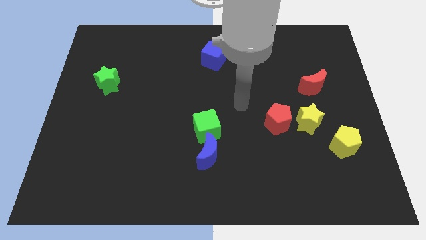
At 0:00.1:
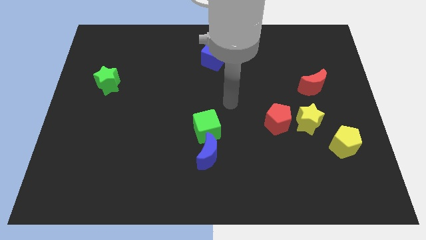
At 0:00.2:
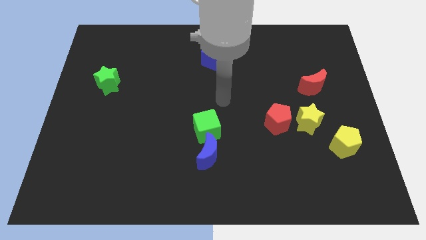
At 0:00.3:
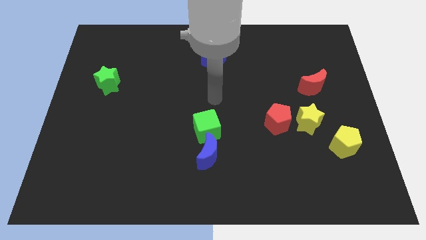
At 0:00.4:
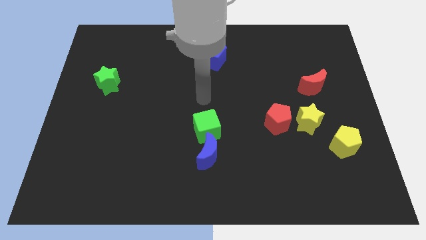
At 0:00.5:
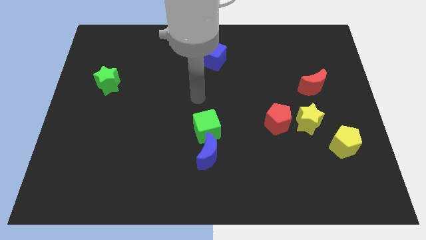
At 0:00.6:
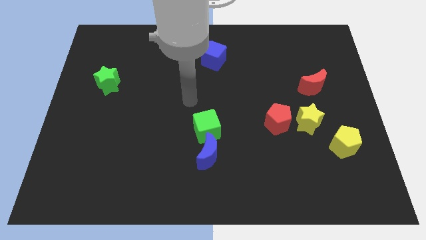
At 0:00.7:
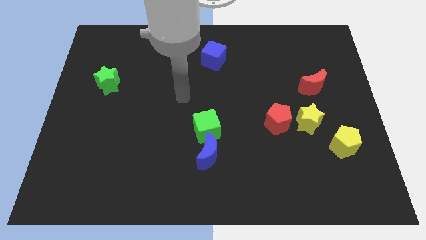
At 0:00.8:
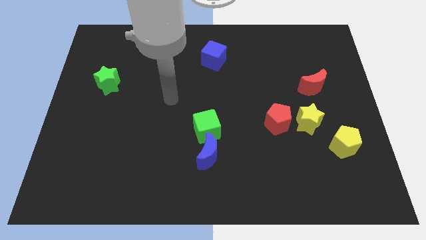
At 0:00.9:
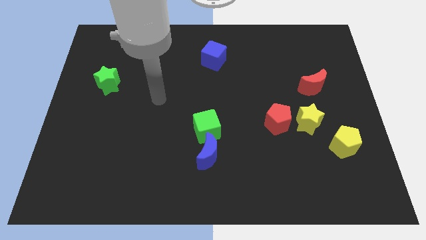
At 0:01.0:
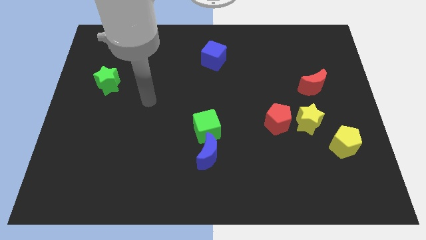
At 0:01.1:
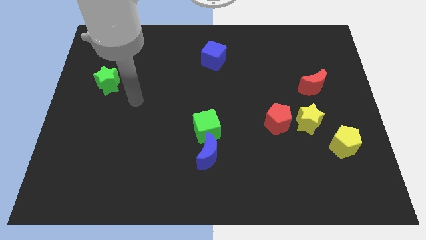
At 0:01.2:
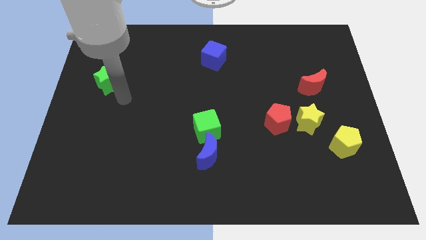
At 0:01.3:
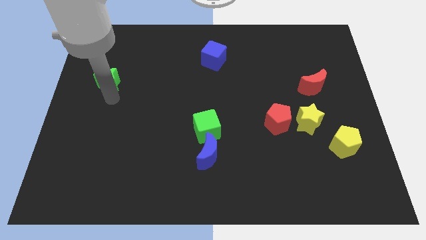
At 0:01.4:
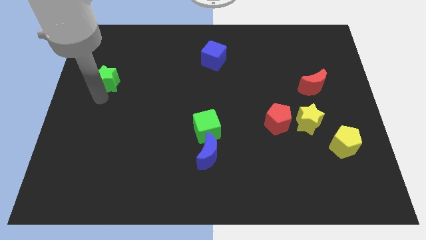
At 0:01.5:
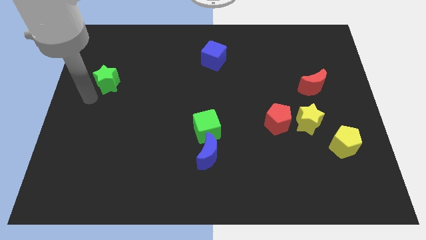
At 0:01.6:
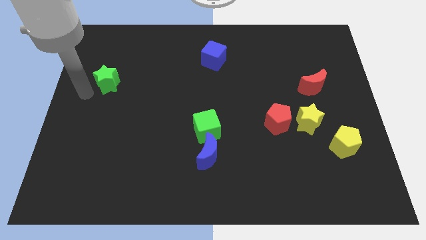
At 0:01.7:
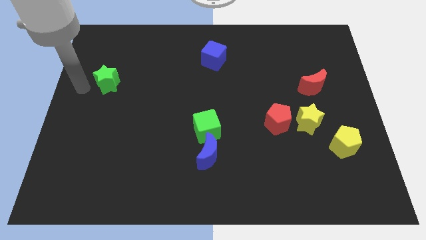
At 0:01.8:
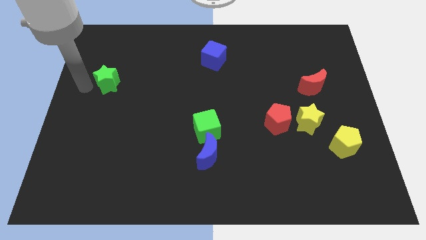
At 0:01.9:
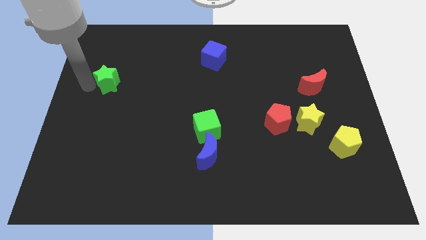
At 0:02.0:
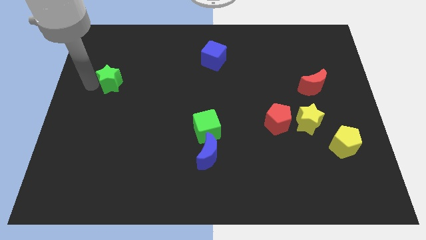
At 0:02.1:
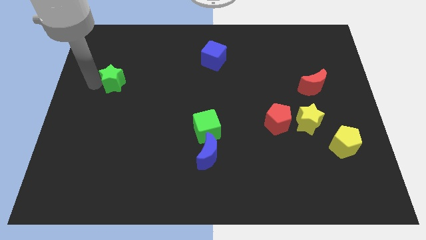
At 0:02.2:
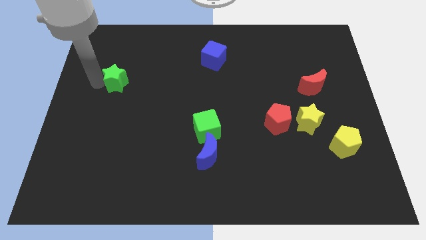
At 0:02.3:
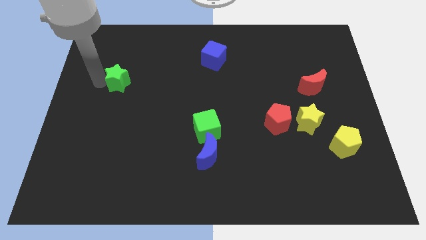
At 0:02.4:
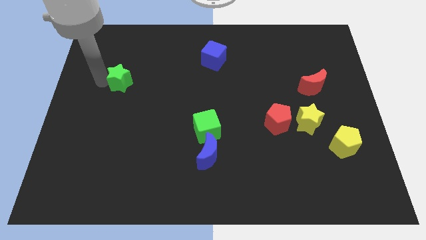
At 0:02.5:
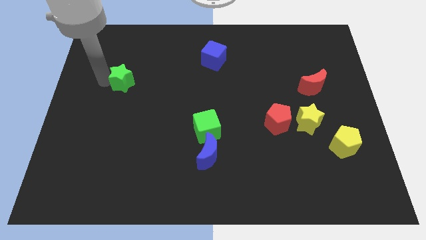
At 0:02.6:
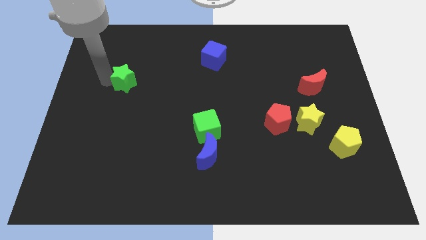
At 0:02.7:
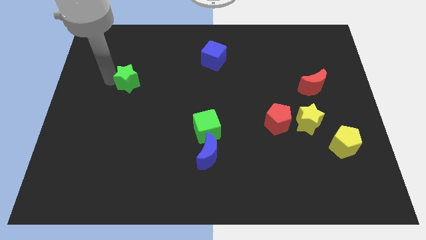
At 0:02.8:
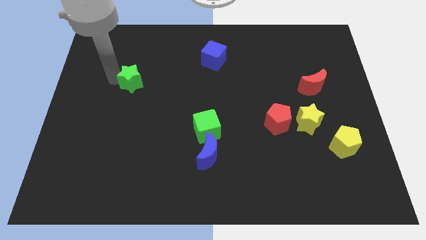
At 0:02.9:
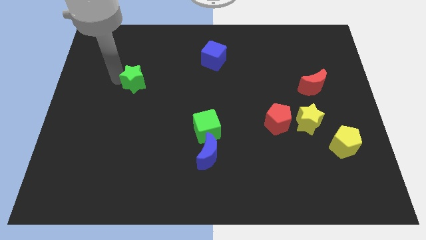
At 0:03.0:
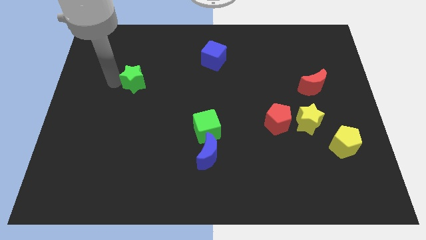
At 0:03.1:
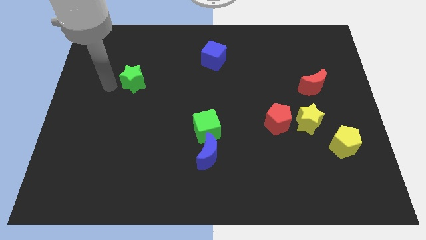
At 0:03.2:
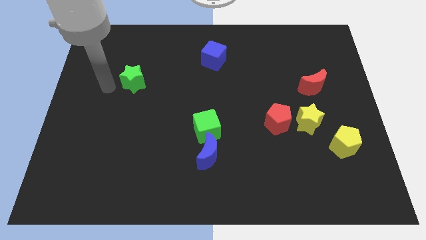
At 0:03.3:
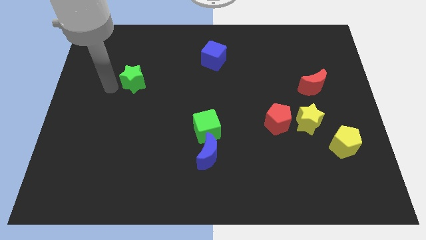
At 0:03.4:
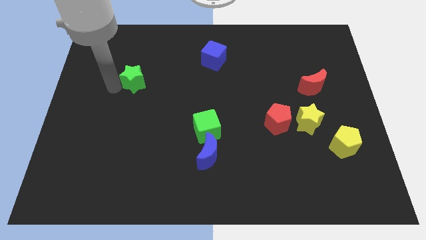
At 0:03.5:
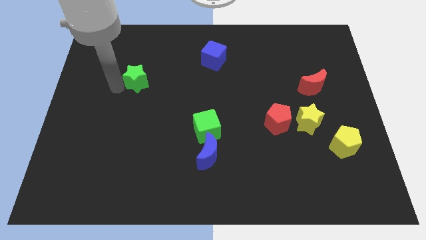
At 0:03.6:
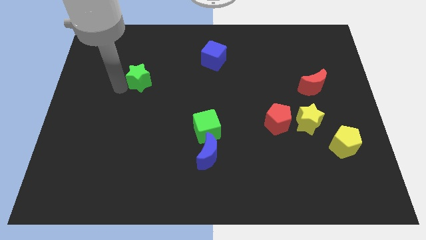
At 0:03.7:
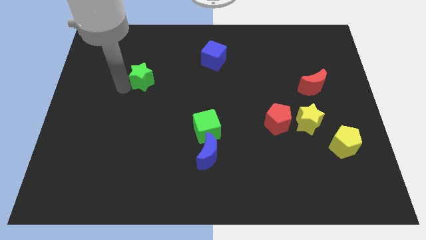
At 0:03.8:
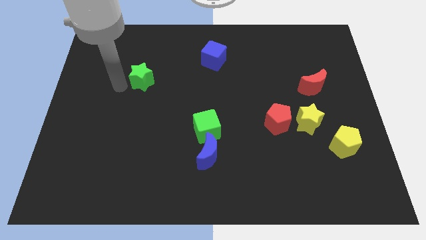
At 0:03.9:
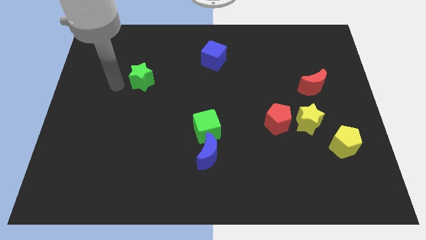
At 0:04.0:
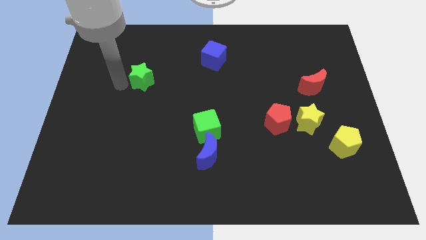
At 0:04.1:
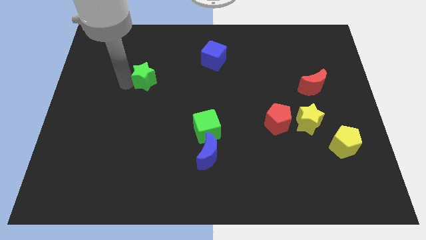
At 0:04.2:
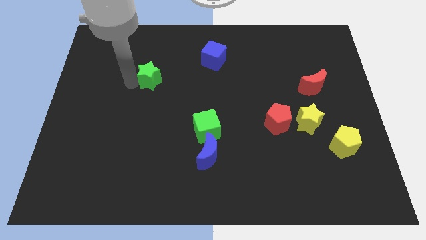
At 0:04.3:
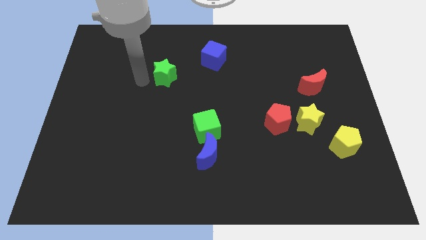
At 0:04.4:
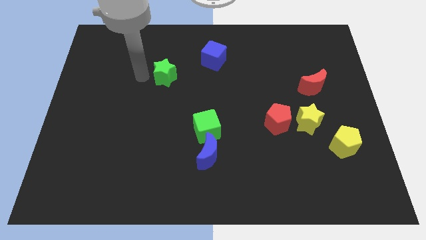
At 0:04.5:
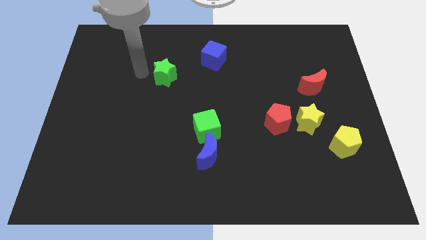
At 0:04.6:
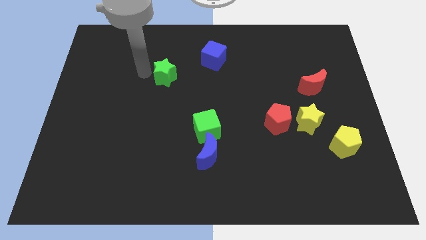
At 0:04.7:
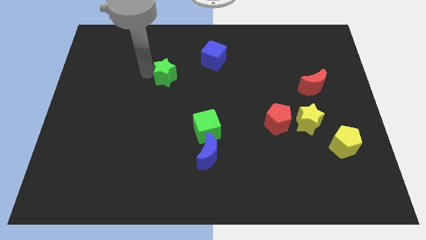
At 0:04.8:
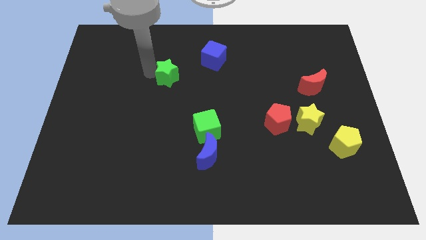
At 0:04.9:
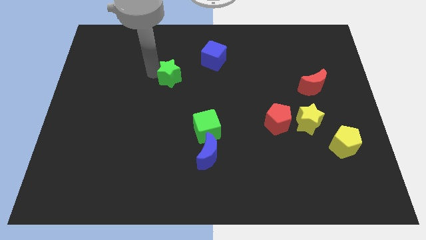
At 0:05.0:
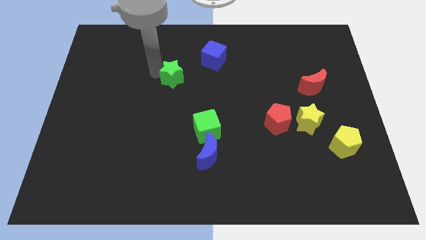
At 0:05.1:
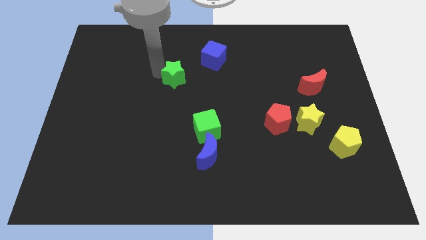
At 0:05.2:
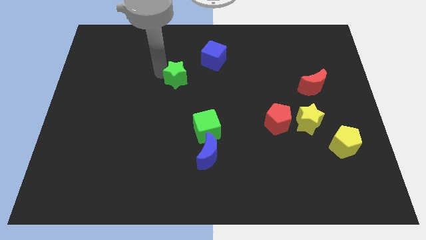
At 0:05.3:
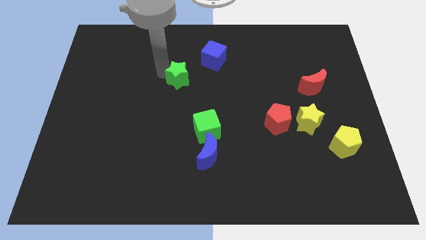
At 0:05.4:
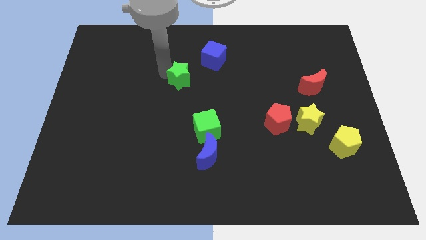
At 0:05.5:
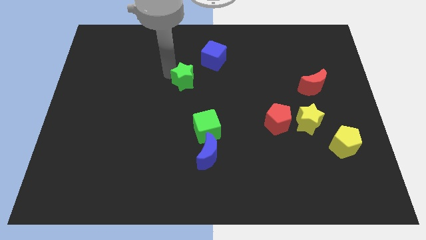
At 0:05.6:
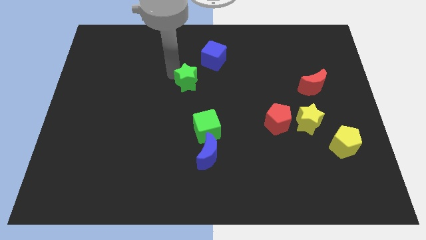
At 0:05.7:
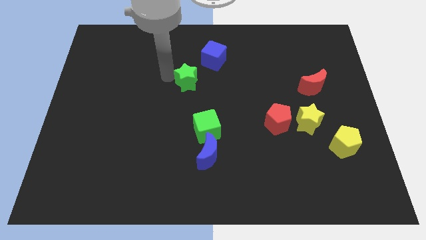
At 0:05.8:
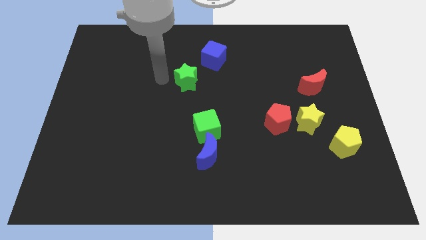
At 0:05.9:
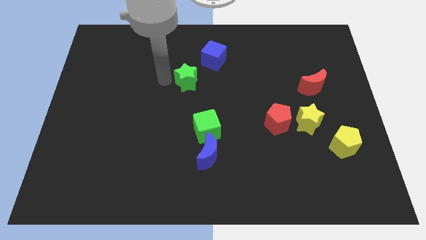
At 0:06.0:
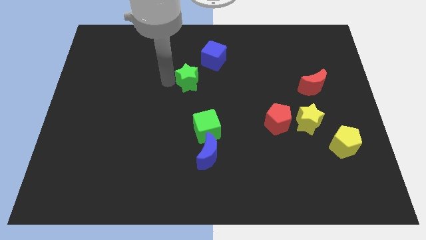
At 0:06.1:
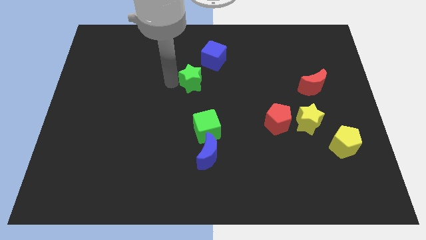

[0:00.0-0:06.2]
move the green star to the right

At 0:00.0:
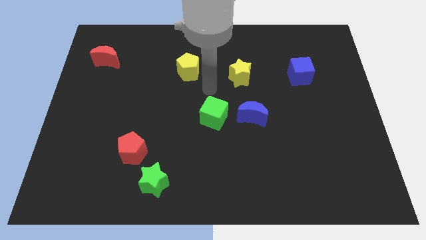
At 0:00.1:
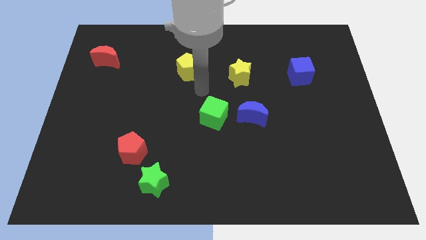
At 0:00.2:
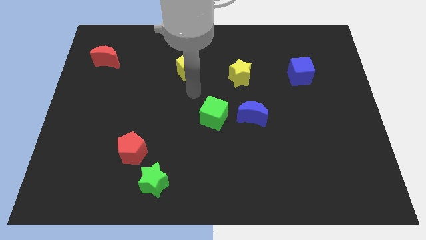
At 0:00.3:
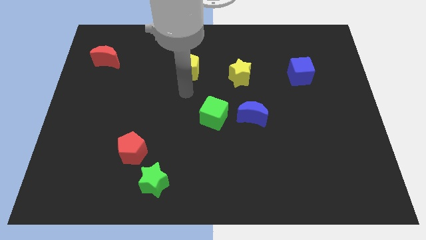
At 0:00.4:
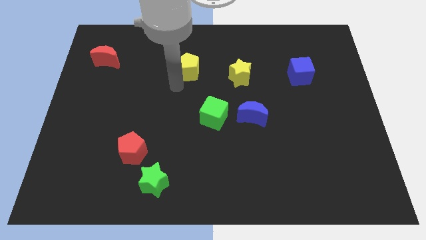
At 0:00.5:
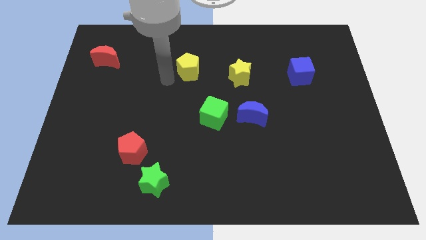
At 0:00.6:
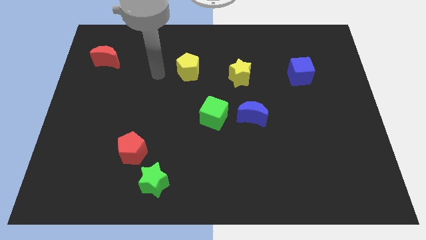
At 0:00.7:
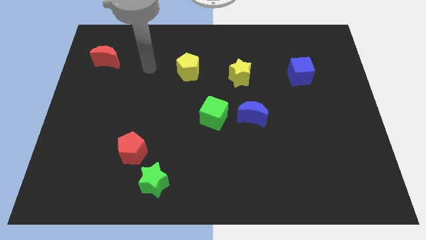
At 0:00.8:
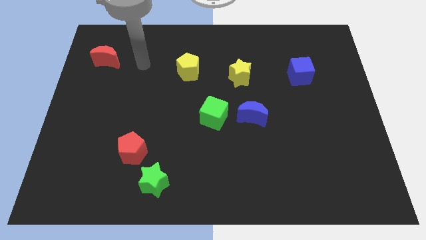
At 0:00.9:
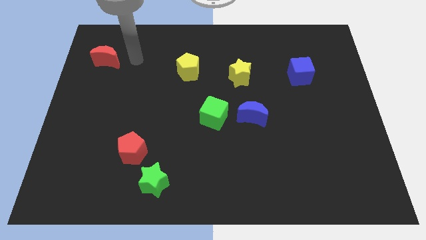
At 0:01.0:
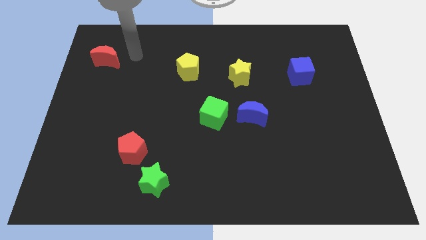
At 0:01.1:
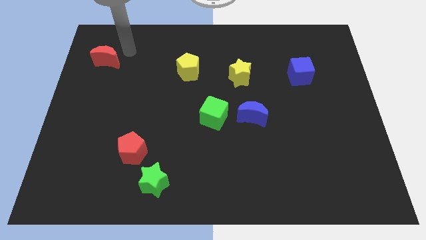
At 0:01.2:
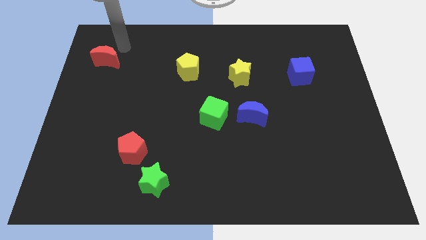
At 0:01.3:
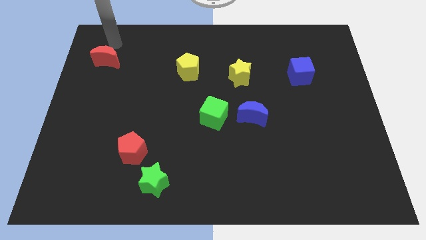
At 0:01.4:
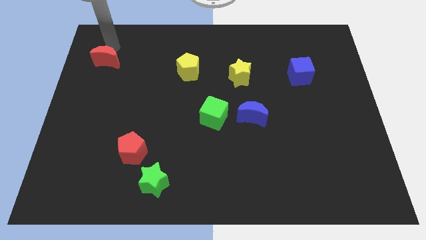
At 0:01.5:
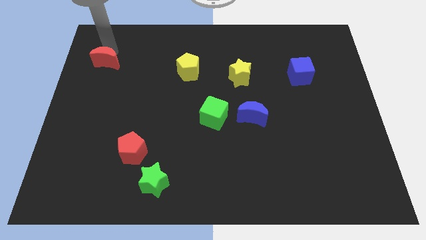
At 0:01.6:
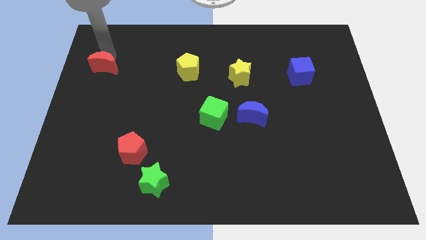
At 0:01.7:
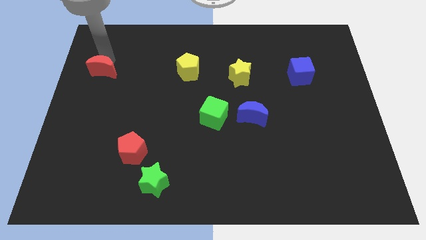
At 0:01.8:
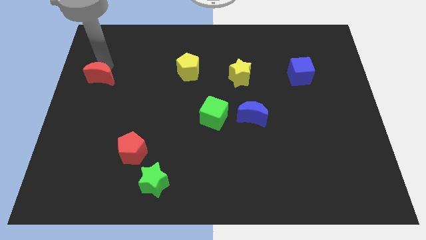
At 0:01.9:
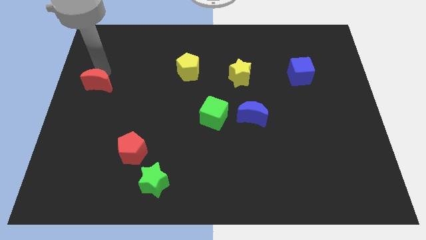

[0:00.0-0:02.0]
move the red moon downwards a little
